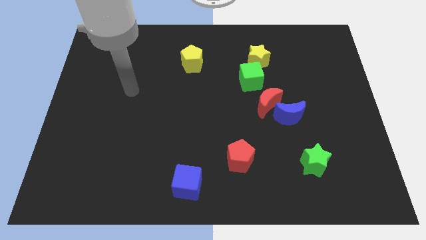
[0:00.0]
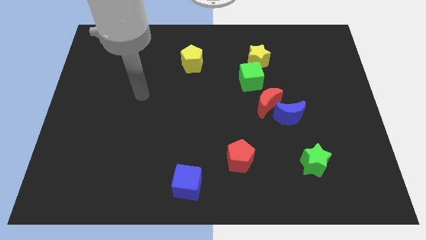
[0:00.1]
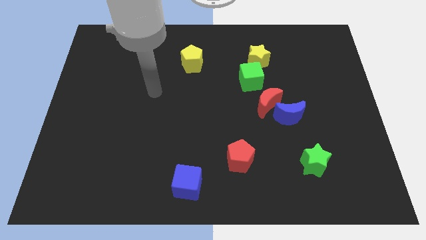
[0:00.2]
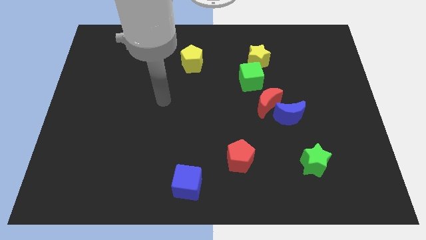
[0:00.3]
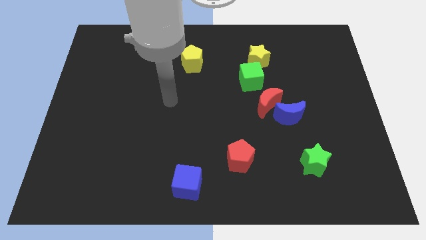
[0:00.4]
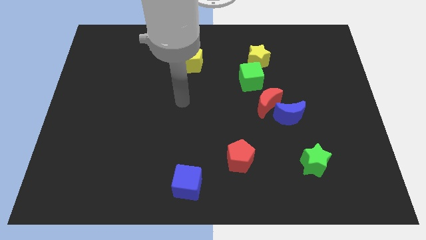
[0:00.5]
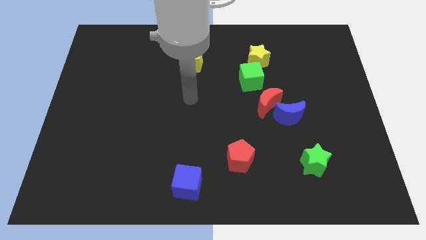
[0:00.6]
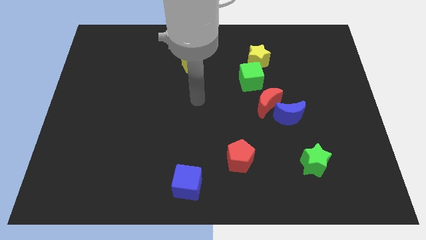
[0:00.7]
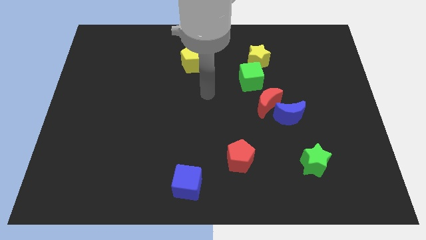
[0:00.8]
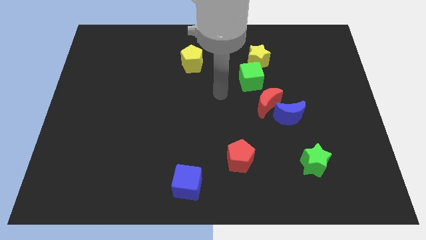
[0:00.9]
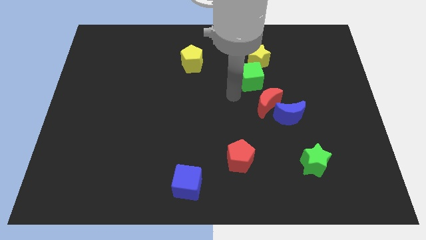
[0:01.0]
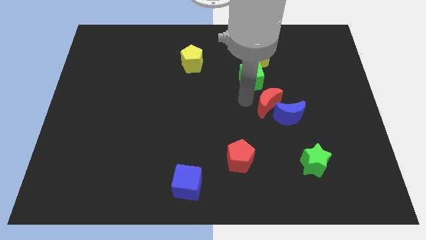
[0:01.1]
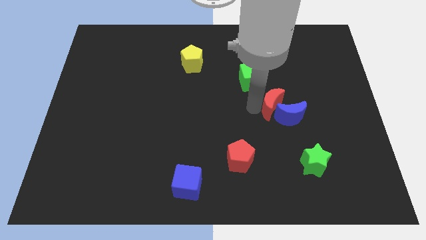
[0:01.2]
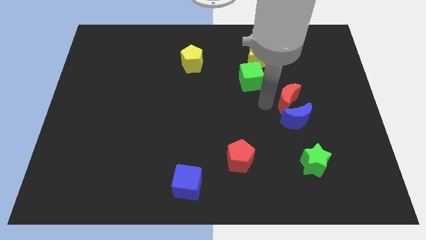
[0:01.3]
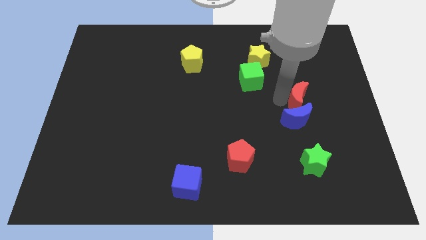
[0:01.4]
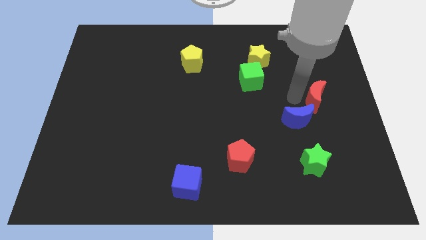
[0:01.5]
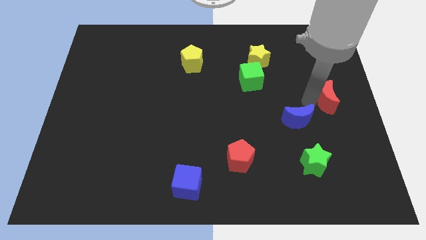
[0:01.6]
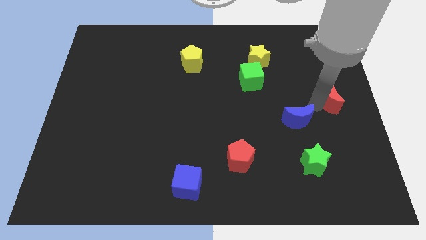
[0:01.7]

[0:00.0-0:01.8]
pull the blue moon apart from the red moon

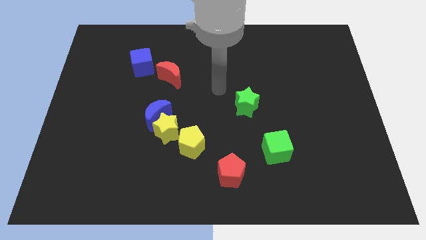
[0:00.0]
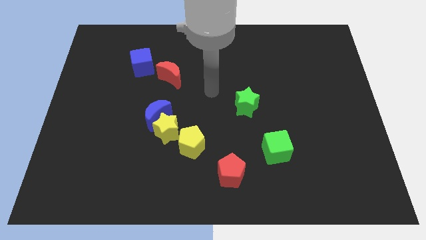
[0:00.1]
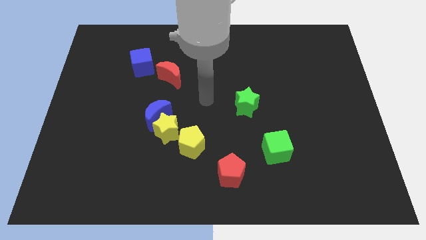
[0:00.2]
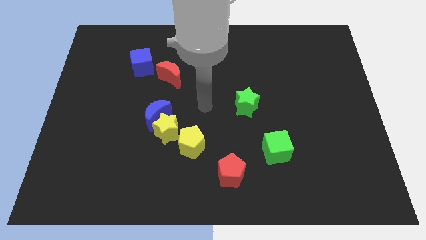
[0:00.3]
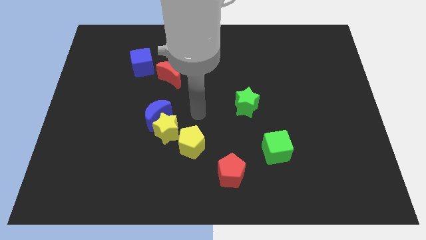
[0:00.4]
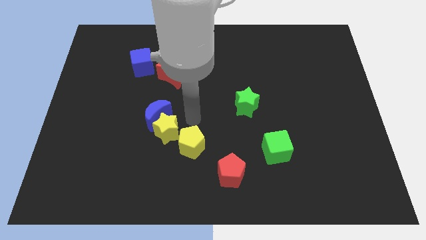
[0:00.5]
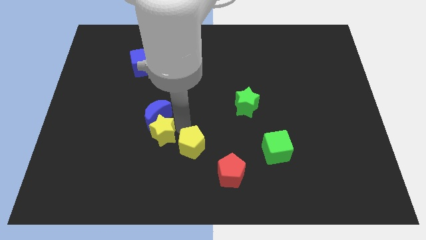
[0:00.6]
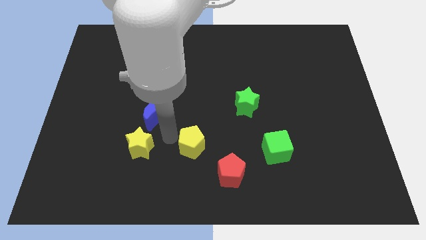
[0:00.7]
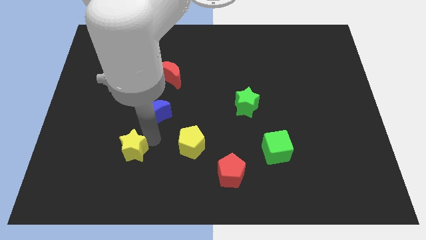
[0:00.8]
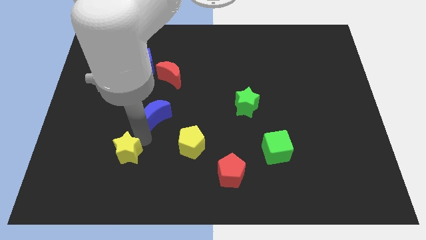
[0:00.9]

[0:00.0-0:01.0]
separate the blue moon from the yellow star

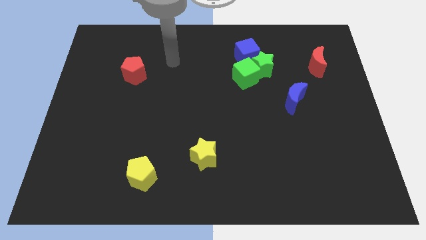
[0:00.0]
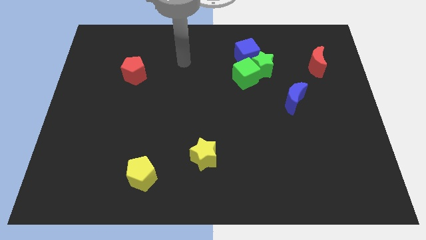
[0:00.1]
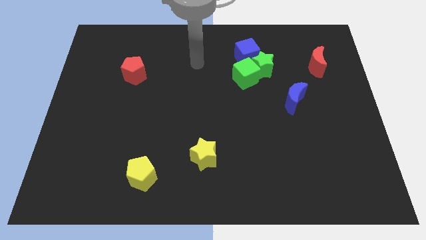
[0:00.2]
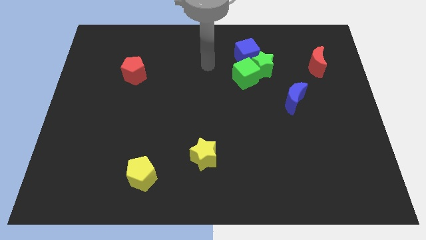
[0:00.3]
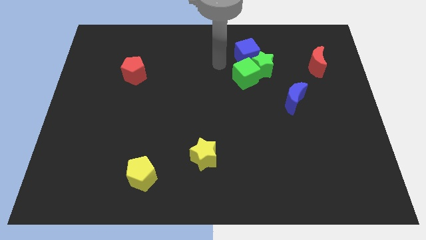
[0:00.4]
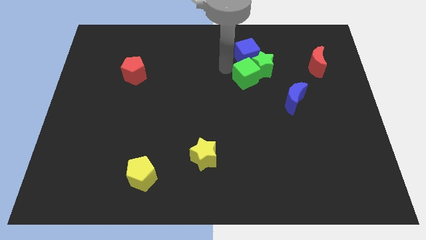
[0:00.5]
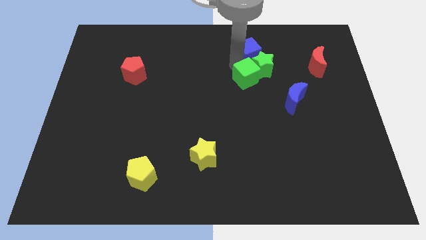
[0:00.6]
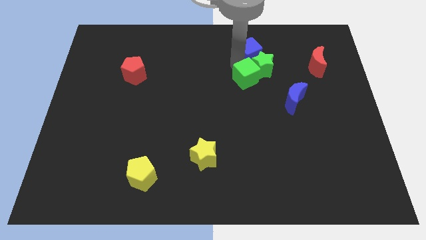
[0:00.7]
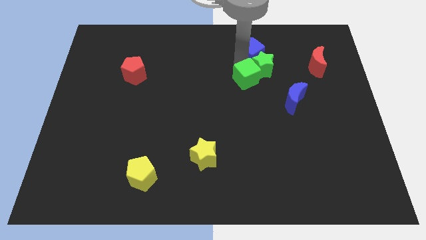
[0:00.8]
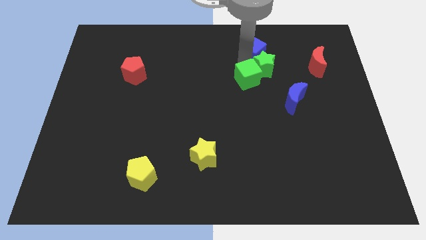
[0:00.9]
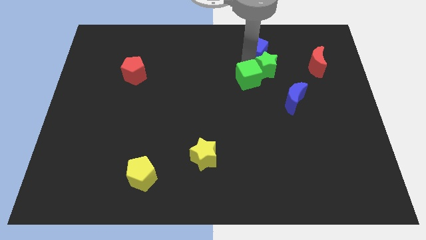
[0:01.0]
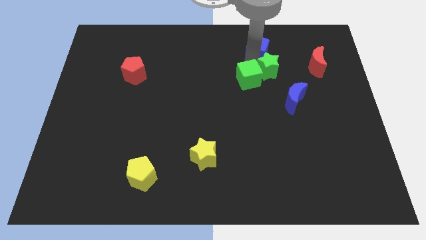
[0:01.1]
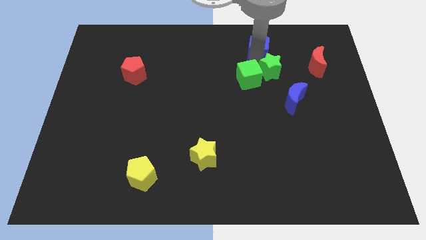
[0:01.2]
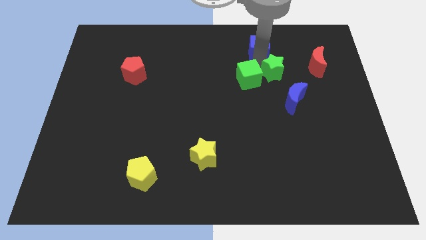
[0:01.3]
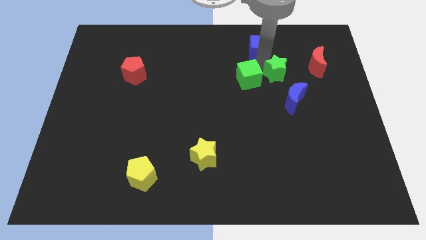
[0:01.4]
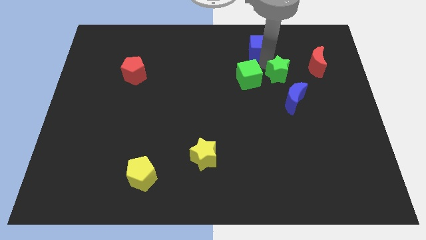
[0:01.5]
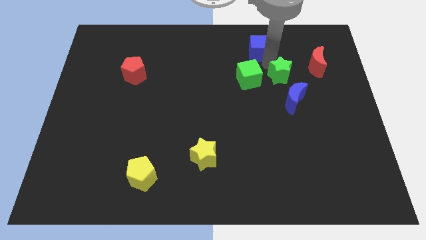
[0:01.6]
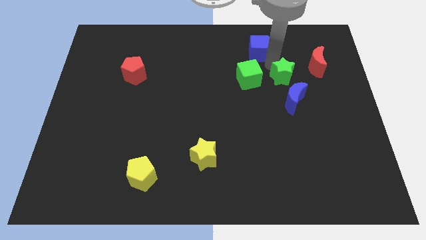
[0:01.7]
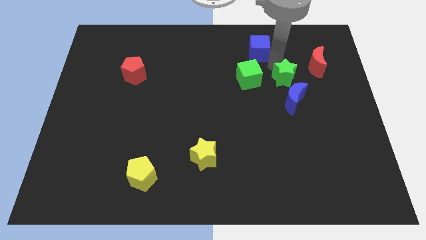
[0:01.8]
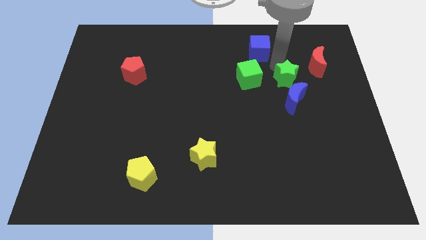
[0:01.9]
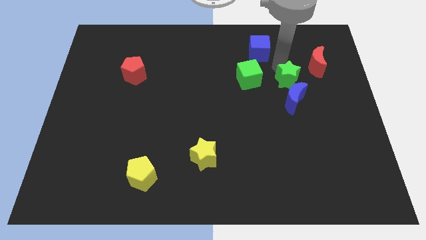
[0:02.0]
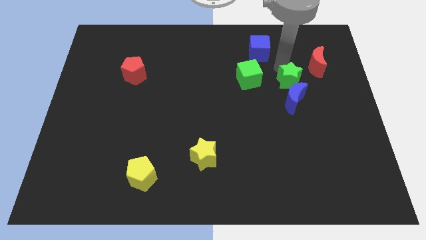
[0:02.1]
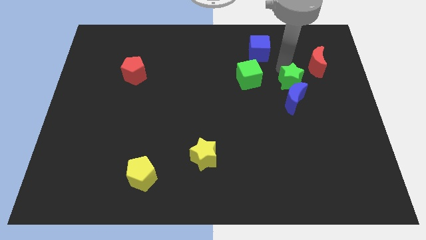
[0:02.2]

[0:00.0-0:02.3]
separate the green star from the green cube and blue cube

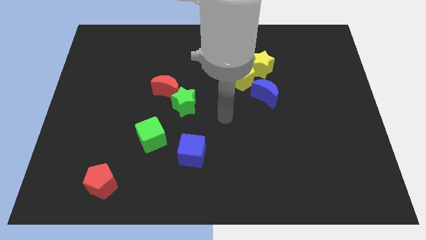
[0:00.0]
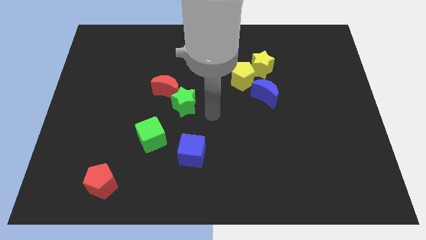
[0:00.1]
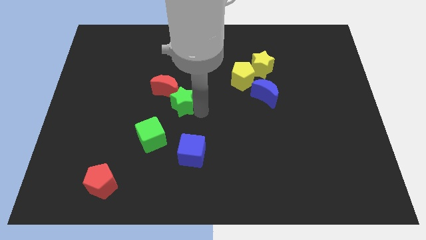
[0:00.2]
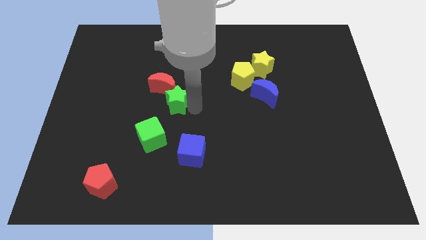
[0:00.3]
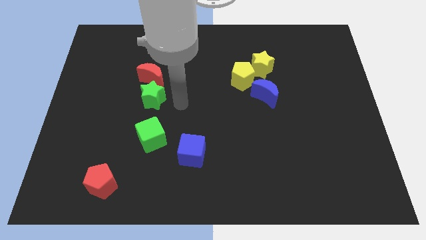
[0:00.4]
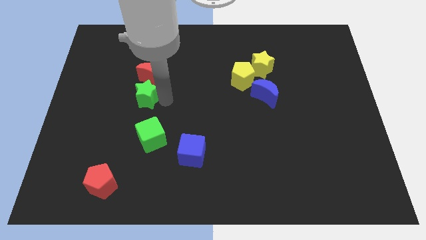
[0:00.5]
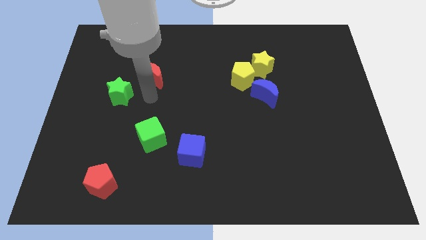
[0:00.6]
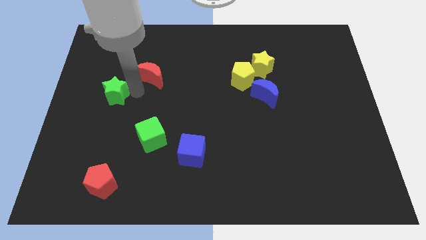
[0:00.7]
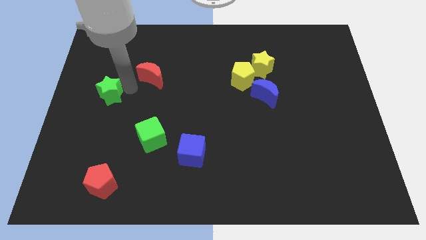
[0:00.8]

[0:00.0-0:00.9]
move the red moon away from the green star

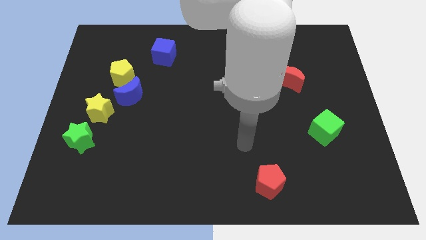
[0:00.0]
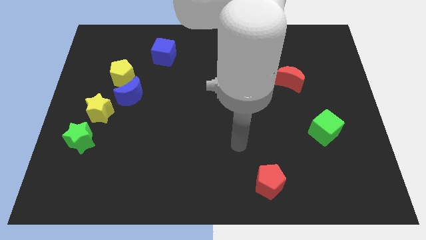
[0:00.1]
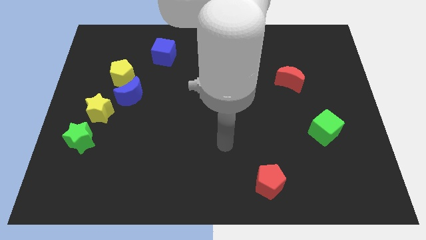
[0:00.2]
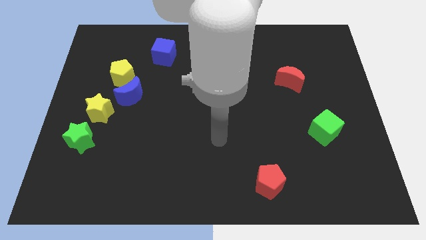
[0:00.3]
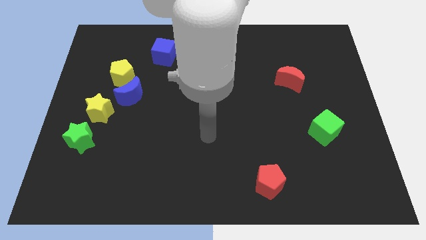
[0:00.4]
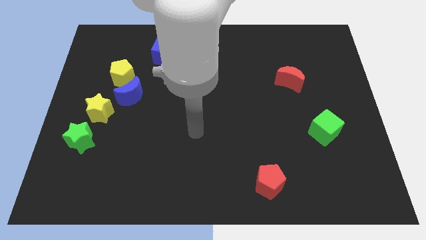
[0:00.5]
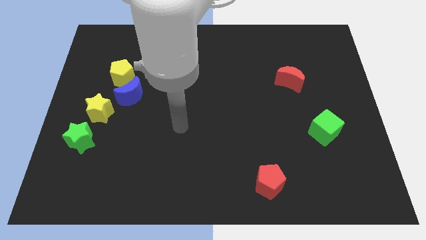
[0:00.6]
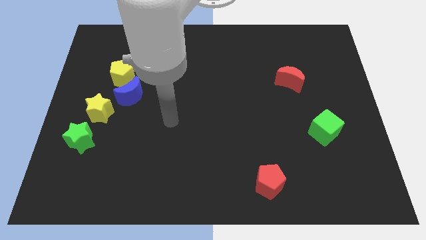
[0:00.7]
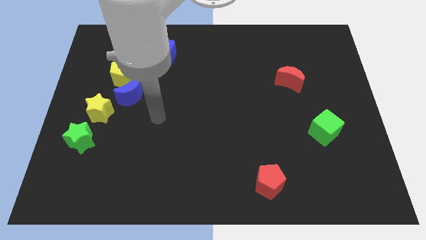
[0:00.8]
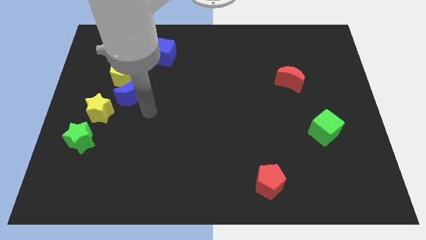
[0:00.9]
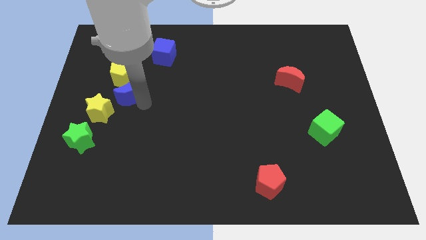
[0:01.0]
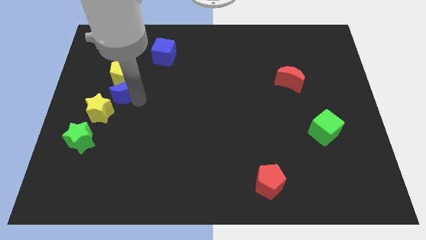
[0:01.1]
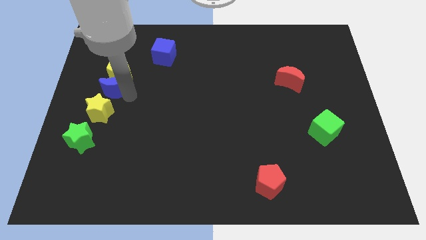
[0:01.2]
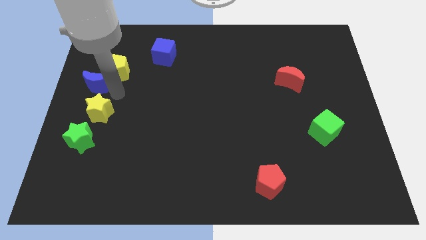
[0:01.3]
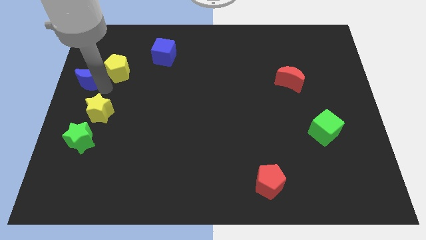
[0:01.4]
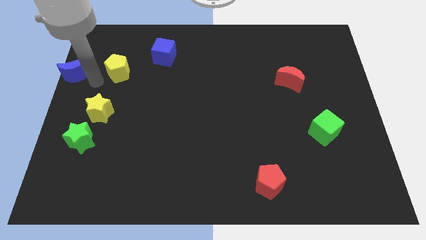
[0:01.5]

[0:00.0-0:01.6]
separate the yellow pentagon from the blue moon

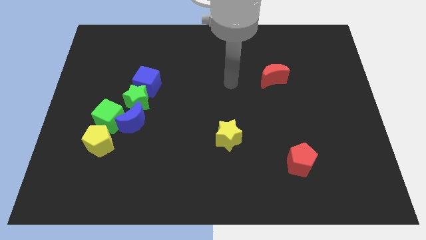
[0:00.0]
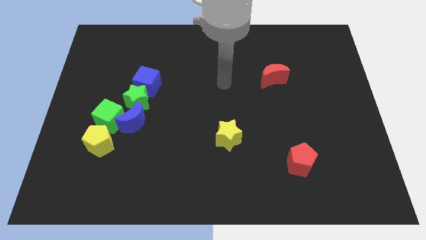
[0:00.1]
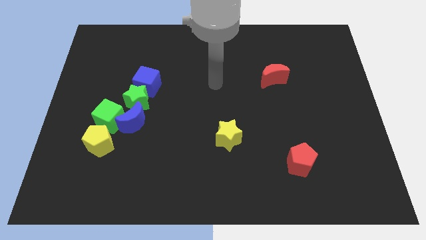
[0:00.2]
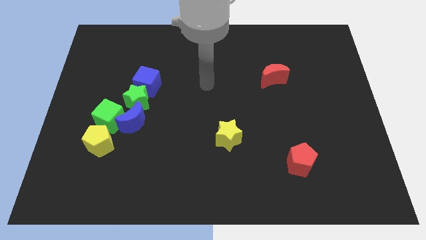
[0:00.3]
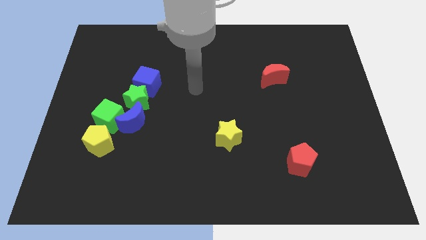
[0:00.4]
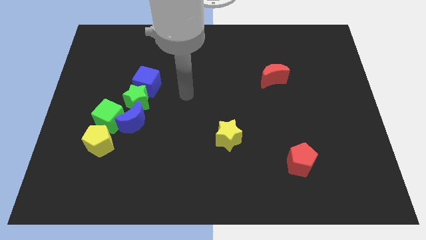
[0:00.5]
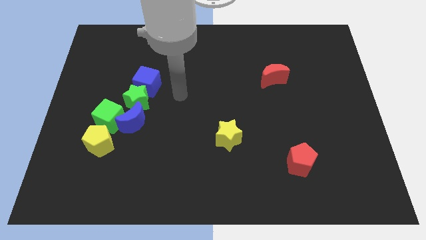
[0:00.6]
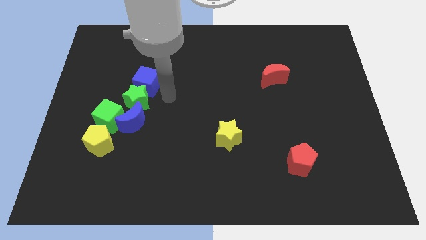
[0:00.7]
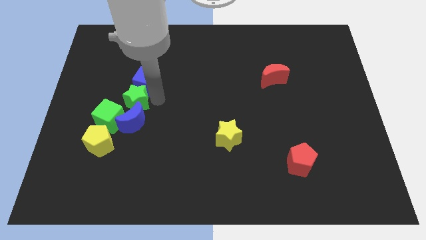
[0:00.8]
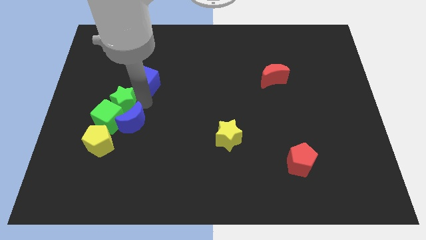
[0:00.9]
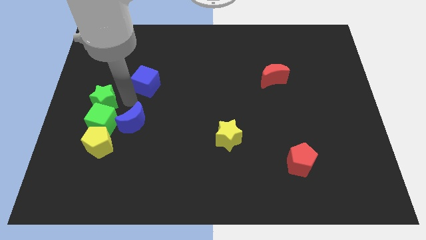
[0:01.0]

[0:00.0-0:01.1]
pull the blue cube apart from the green star

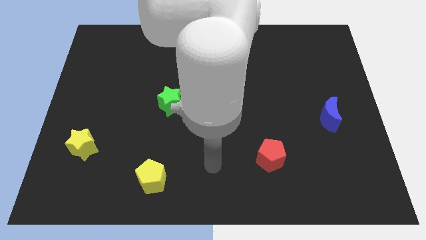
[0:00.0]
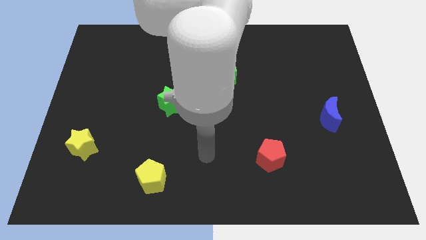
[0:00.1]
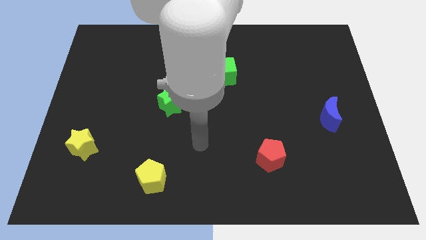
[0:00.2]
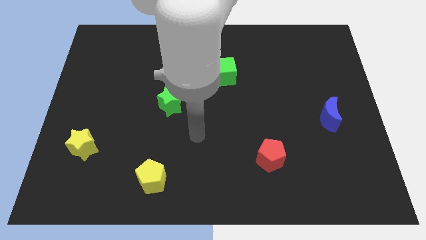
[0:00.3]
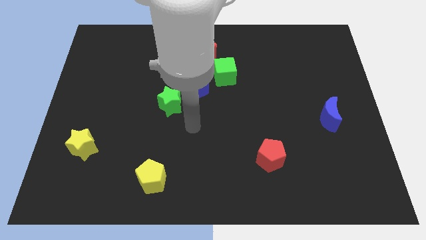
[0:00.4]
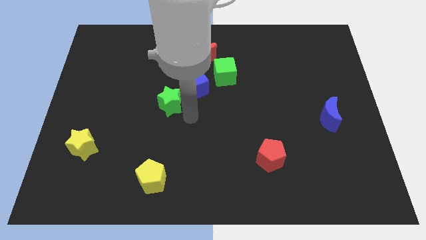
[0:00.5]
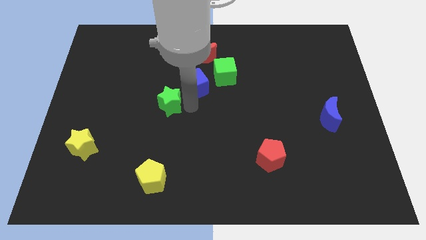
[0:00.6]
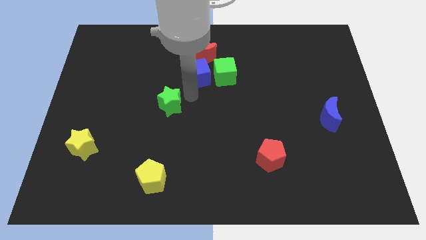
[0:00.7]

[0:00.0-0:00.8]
move the green star away from the blue cube
